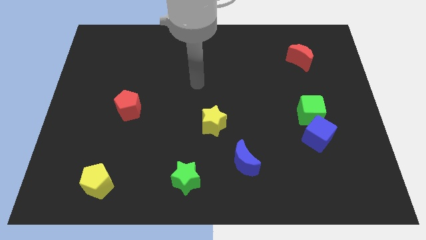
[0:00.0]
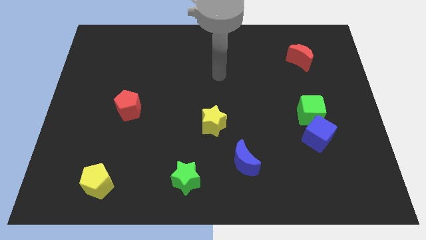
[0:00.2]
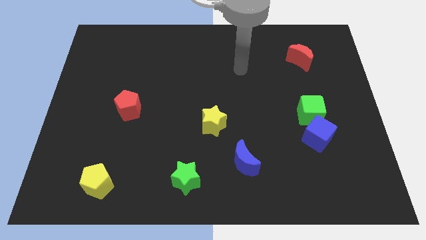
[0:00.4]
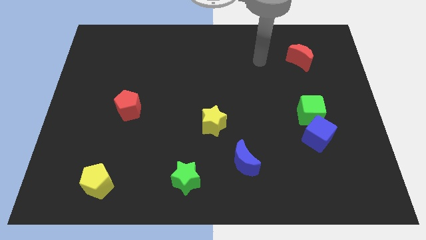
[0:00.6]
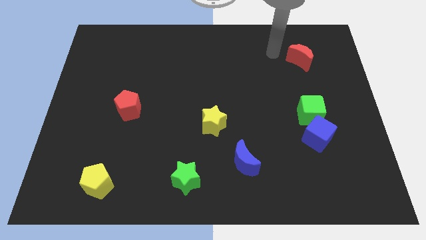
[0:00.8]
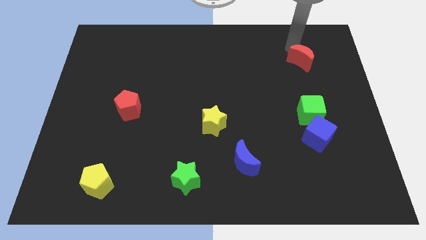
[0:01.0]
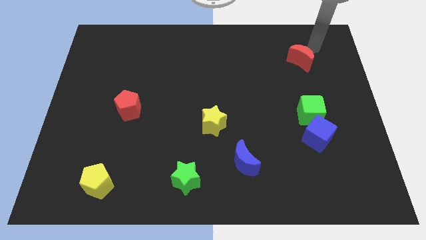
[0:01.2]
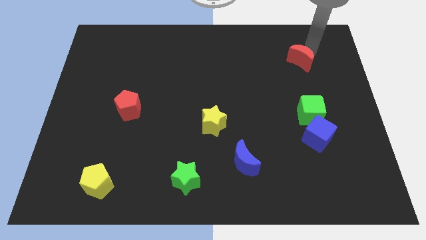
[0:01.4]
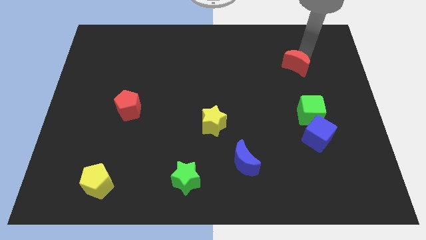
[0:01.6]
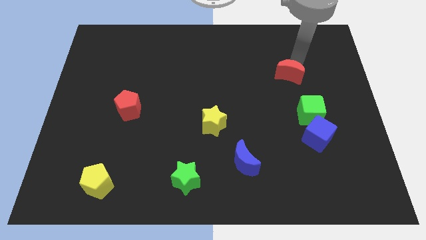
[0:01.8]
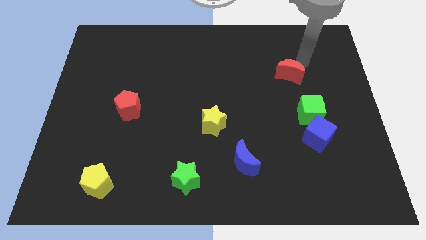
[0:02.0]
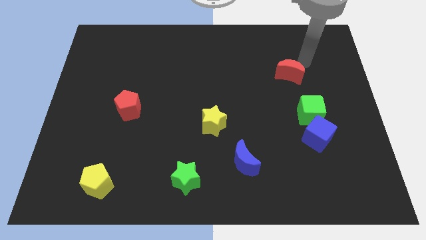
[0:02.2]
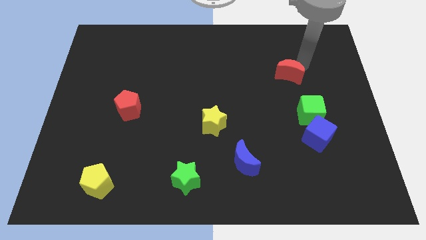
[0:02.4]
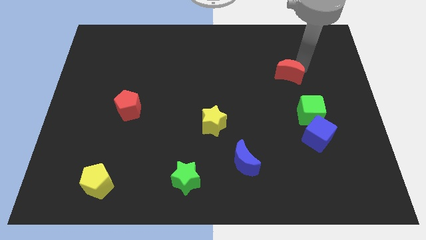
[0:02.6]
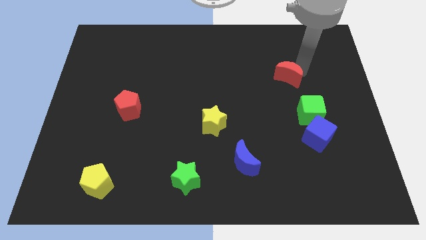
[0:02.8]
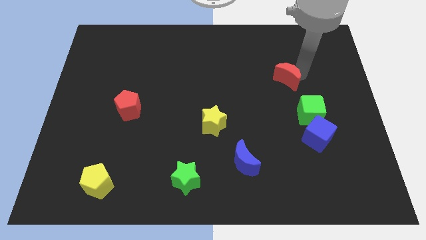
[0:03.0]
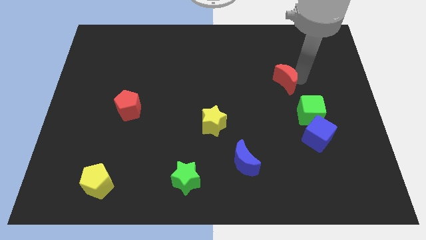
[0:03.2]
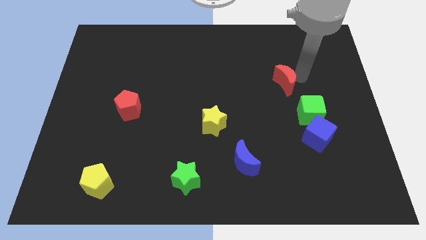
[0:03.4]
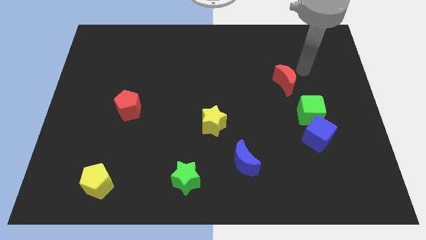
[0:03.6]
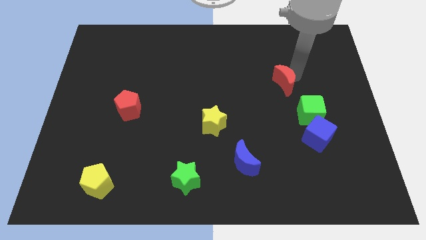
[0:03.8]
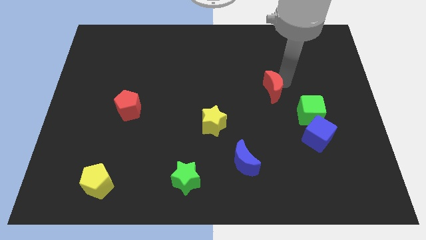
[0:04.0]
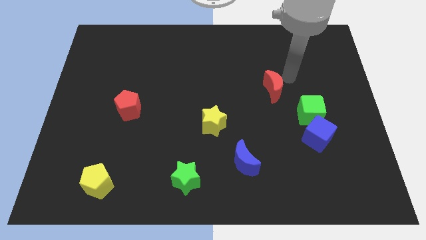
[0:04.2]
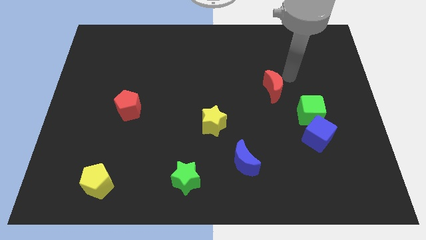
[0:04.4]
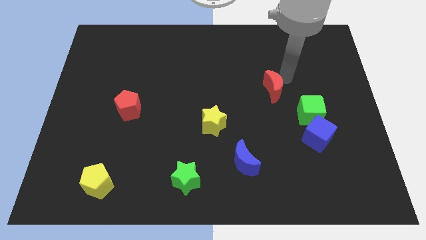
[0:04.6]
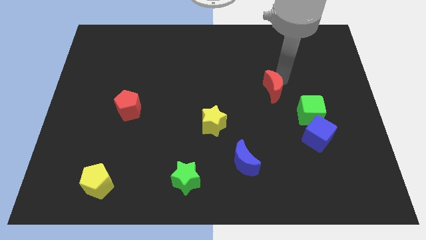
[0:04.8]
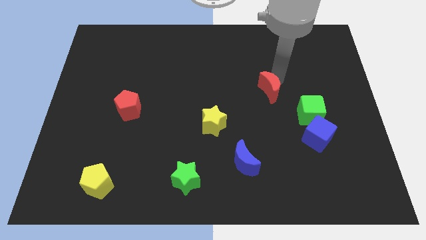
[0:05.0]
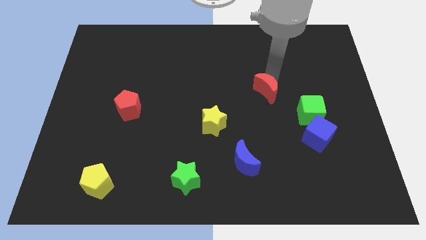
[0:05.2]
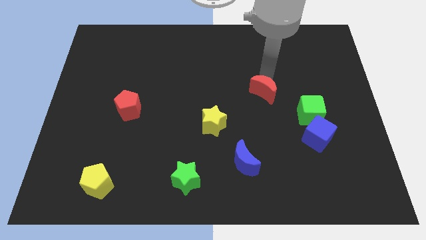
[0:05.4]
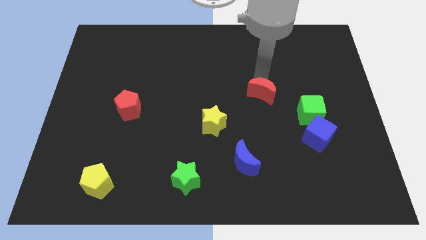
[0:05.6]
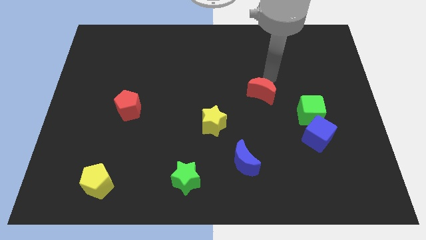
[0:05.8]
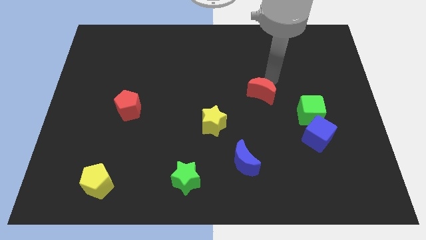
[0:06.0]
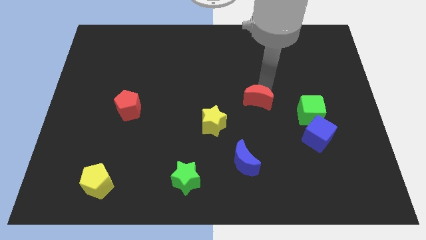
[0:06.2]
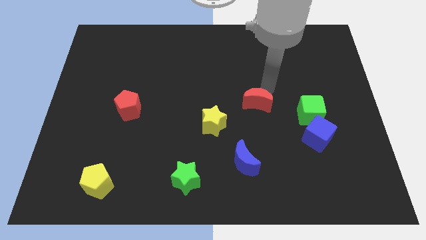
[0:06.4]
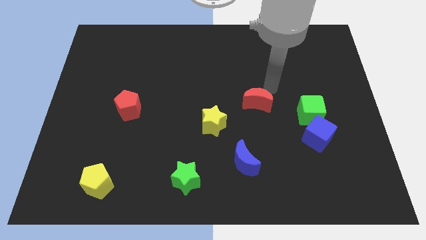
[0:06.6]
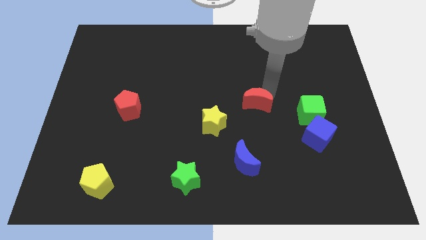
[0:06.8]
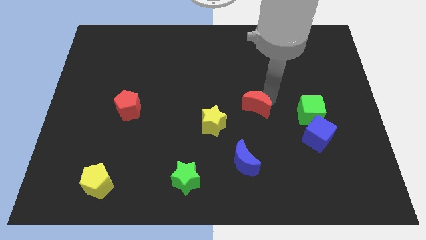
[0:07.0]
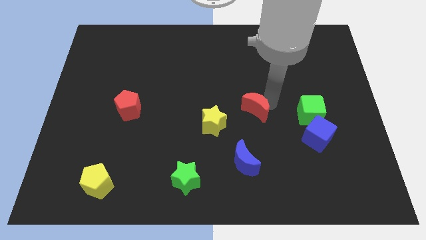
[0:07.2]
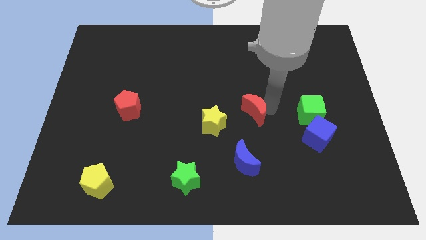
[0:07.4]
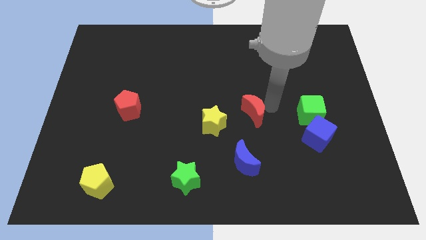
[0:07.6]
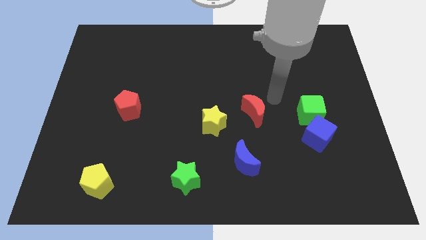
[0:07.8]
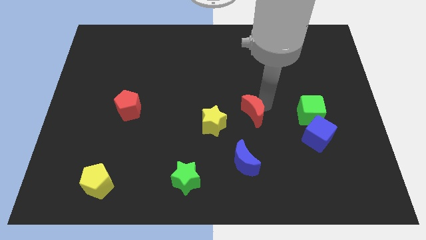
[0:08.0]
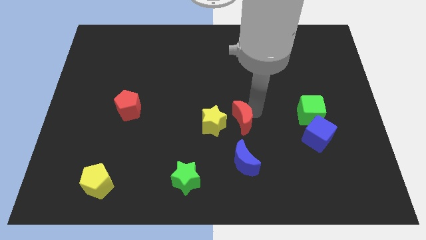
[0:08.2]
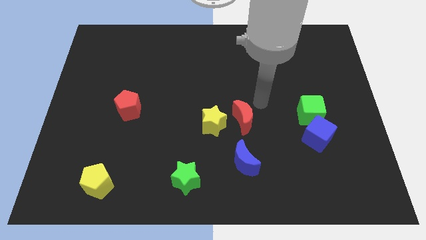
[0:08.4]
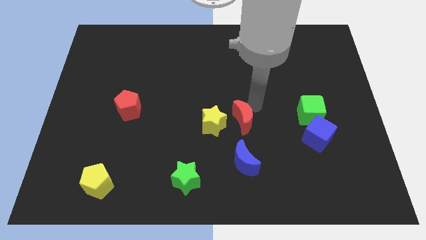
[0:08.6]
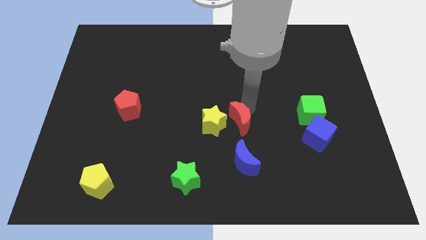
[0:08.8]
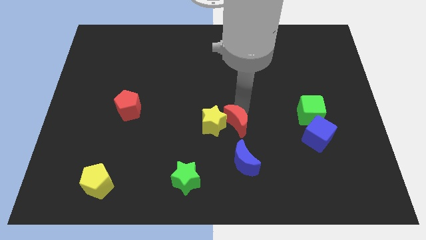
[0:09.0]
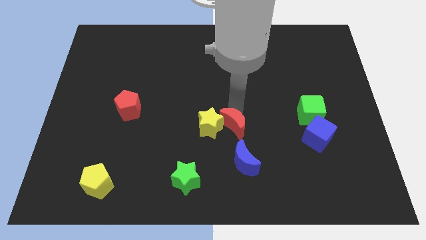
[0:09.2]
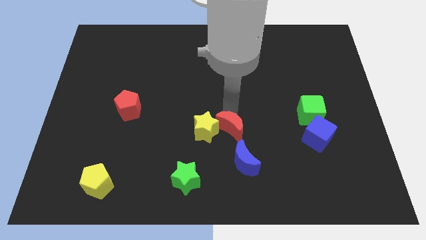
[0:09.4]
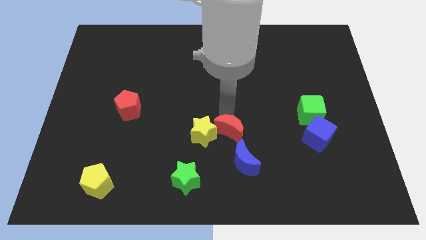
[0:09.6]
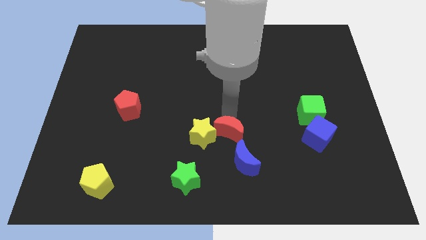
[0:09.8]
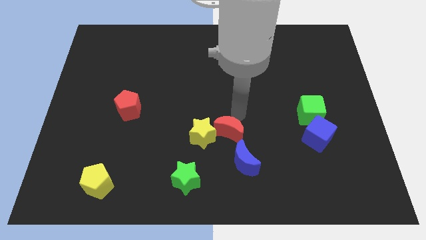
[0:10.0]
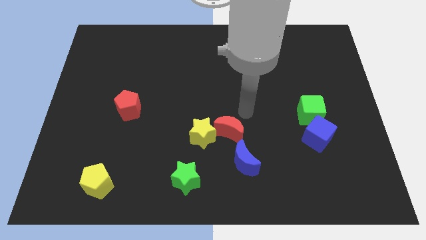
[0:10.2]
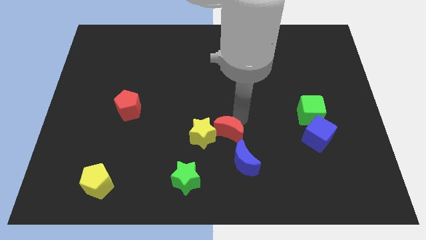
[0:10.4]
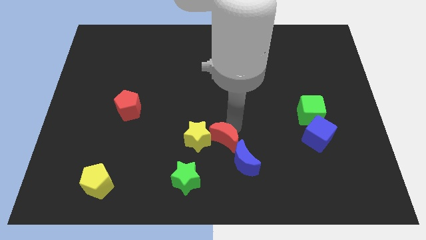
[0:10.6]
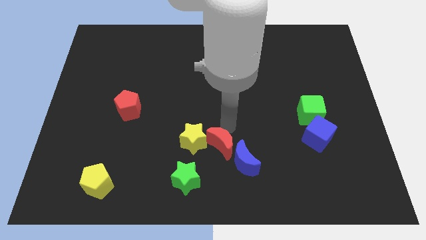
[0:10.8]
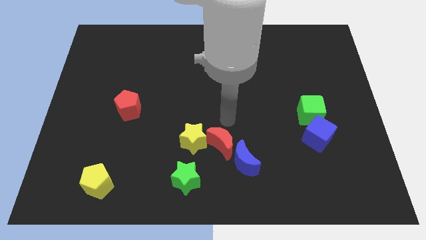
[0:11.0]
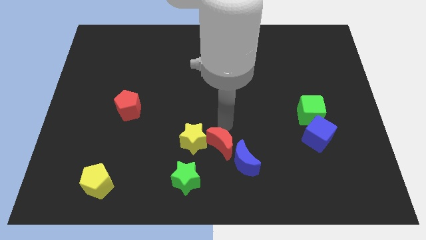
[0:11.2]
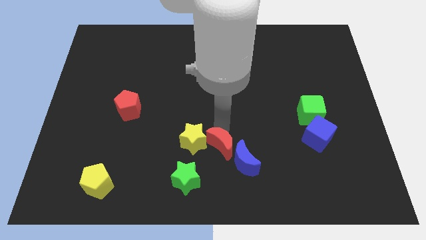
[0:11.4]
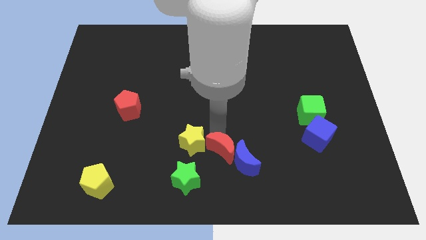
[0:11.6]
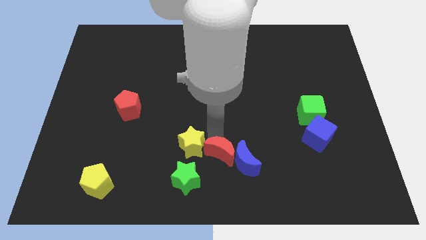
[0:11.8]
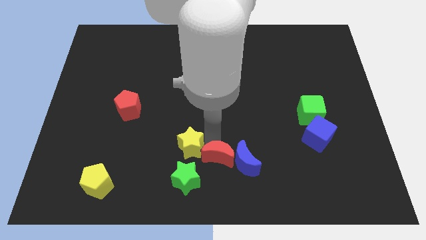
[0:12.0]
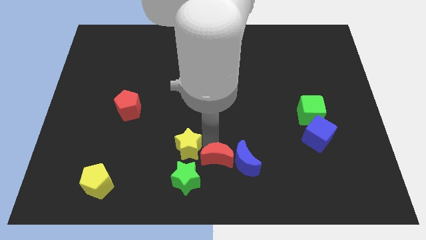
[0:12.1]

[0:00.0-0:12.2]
put the red moon just right of the green star

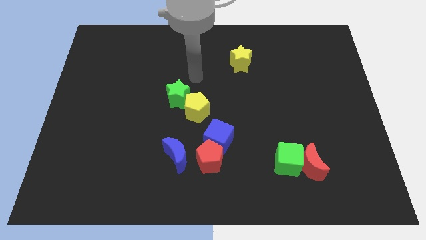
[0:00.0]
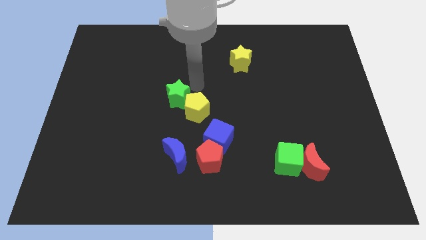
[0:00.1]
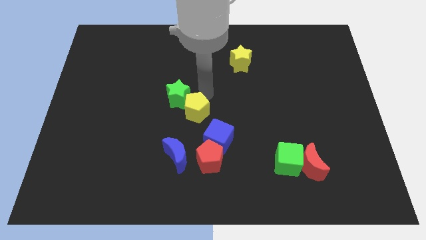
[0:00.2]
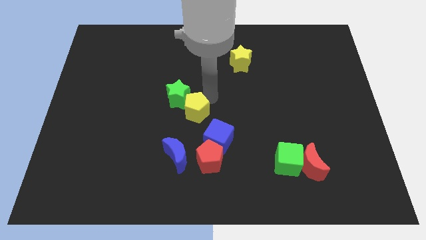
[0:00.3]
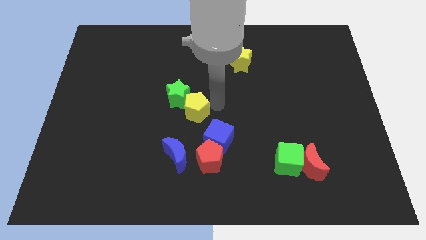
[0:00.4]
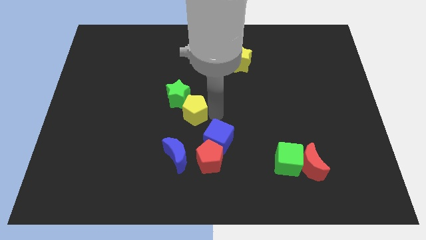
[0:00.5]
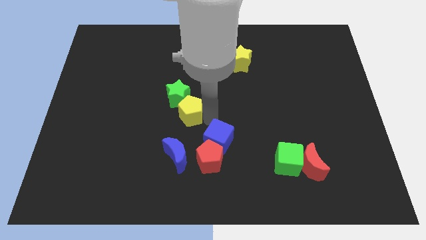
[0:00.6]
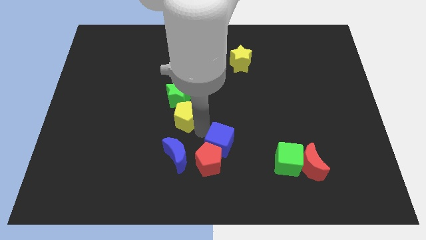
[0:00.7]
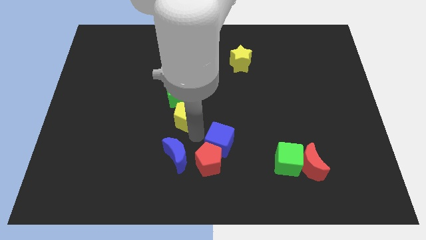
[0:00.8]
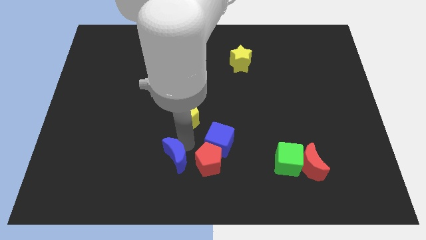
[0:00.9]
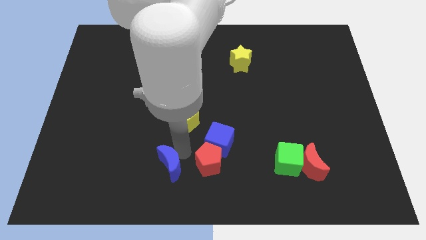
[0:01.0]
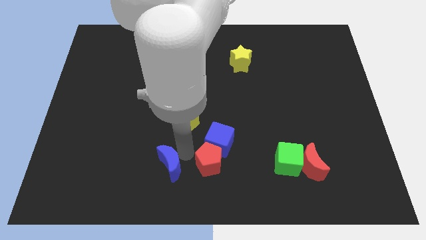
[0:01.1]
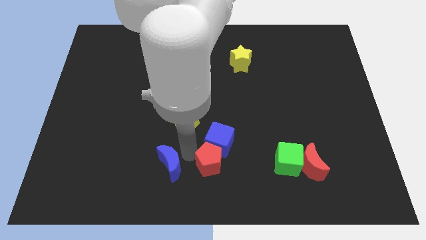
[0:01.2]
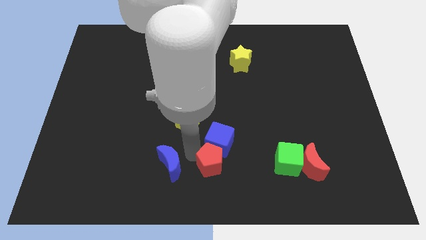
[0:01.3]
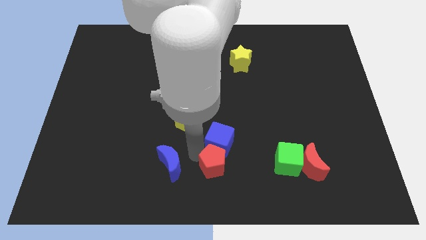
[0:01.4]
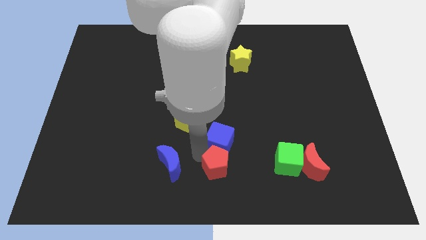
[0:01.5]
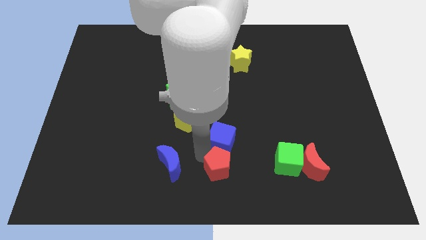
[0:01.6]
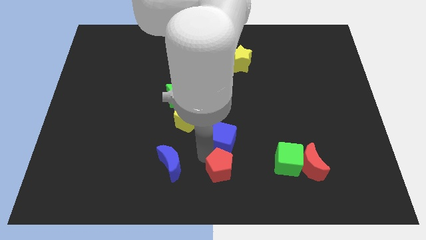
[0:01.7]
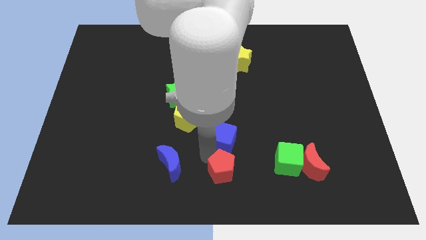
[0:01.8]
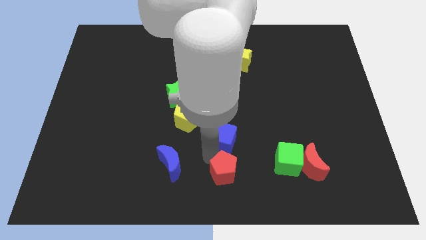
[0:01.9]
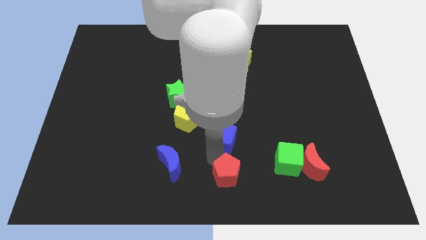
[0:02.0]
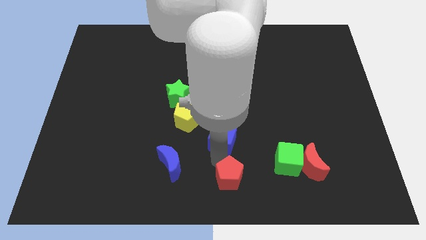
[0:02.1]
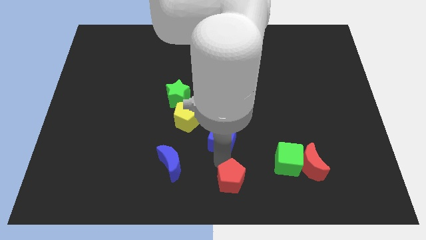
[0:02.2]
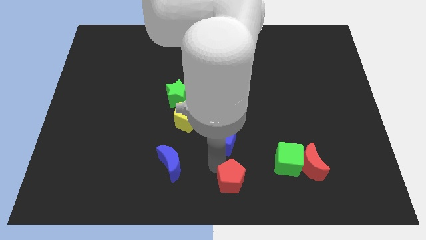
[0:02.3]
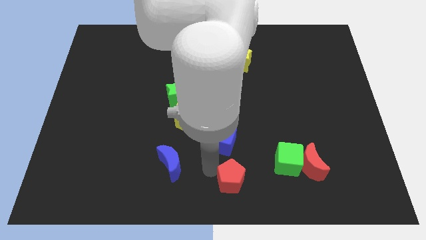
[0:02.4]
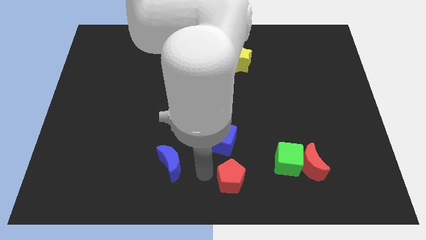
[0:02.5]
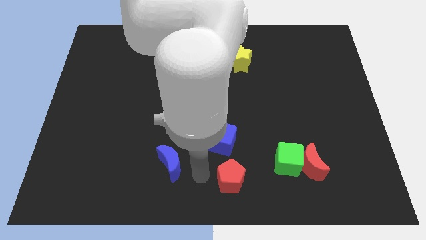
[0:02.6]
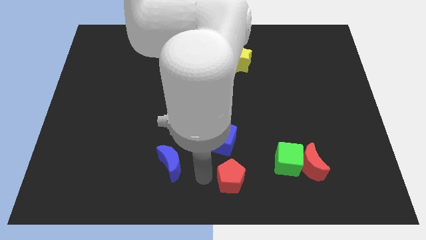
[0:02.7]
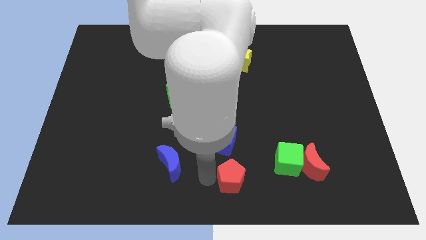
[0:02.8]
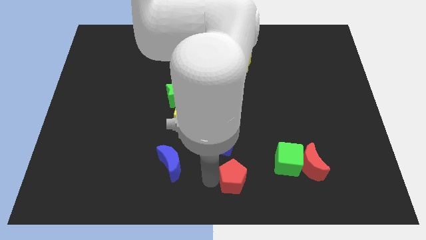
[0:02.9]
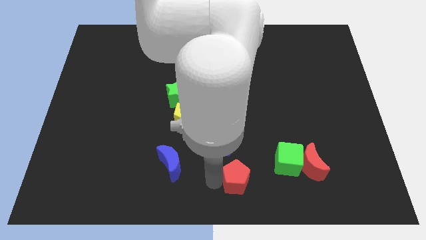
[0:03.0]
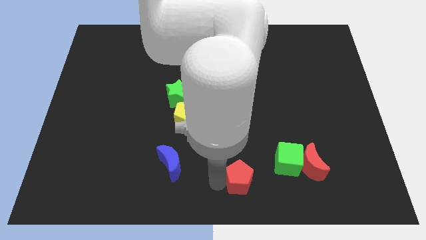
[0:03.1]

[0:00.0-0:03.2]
move the red pentagon diagonally down and to the left of the green cube
